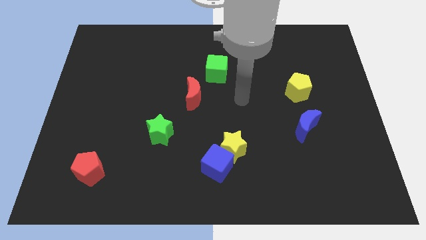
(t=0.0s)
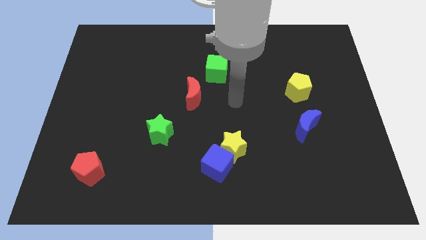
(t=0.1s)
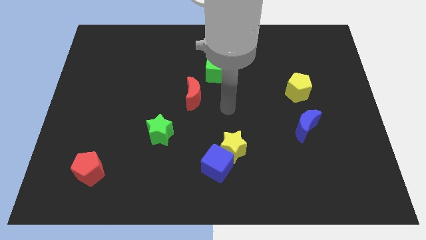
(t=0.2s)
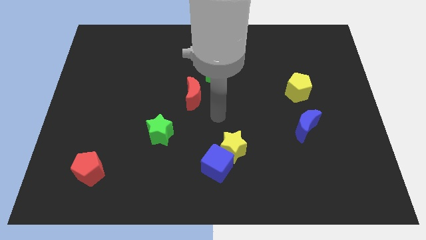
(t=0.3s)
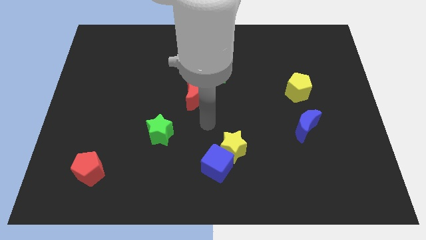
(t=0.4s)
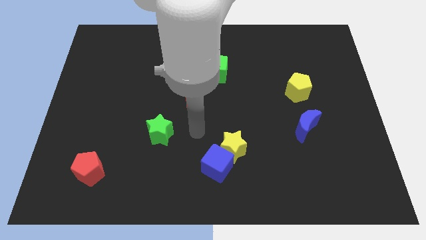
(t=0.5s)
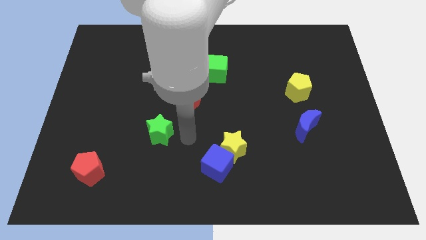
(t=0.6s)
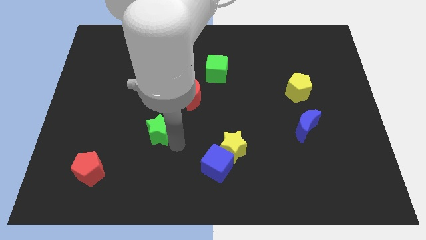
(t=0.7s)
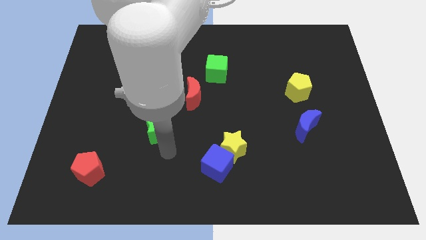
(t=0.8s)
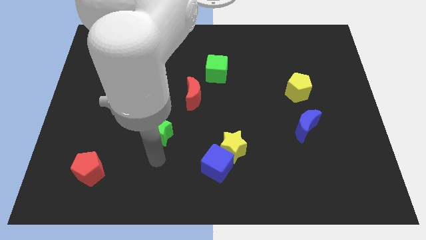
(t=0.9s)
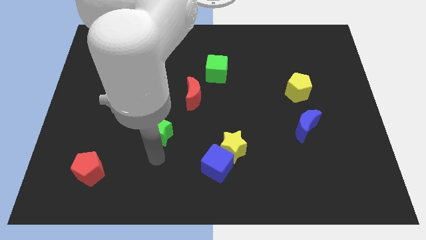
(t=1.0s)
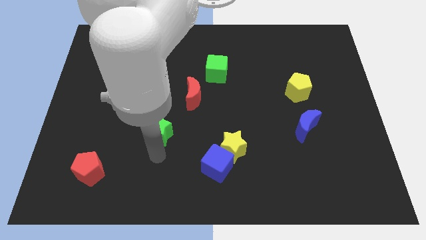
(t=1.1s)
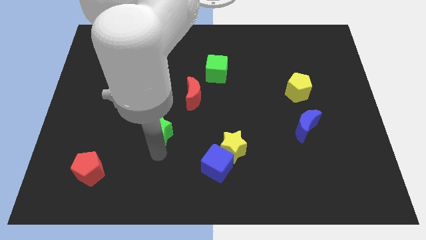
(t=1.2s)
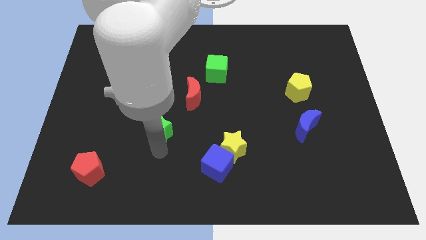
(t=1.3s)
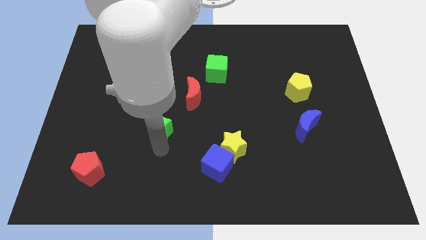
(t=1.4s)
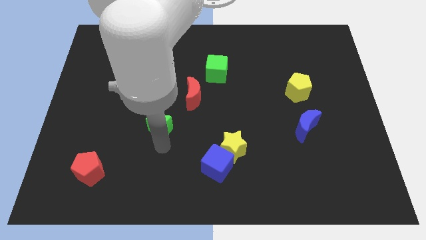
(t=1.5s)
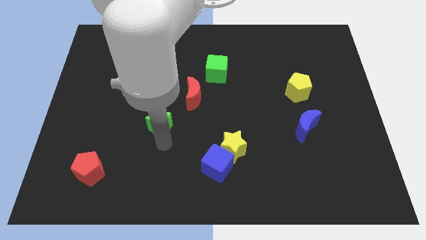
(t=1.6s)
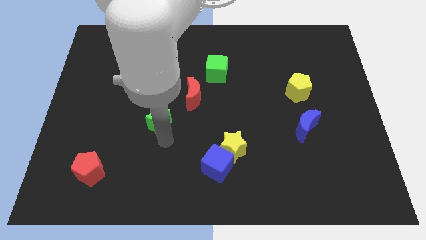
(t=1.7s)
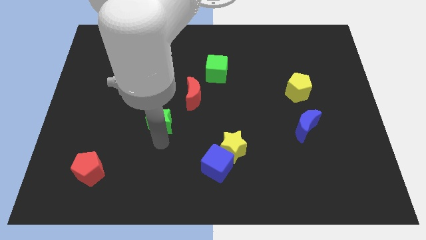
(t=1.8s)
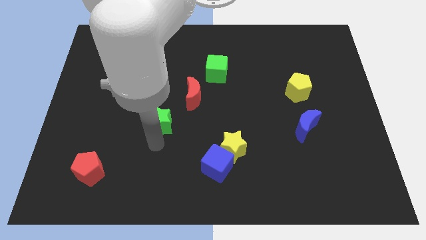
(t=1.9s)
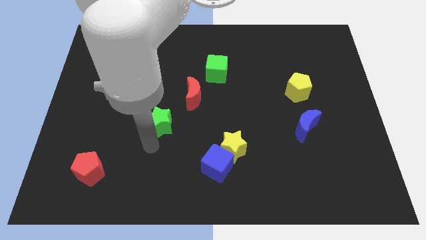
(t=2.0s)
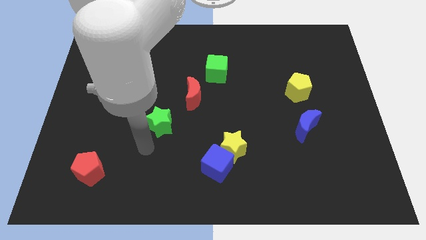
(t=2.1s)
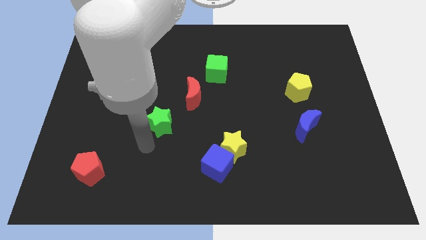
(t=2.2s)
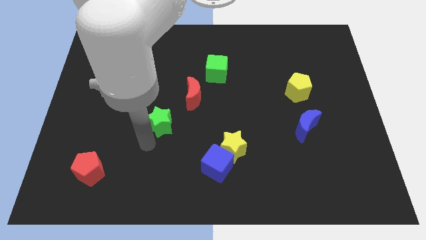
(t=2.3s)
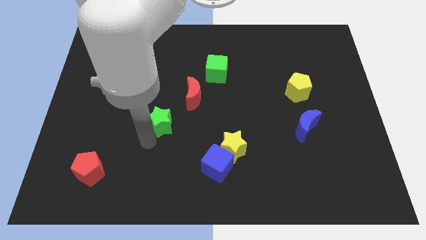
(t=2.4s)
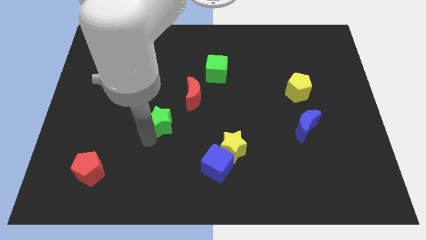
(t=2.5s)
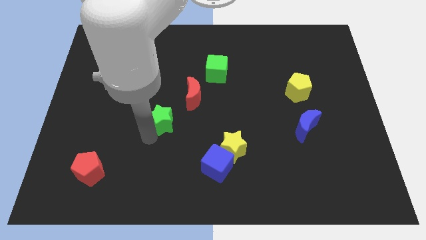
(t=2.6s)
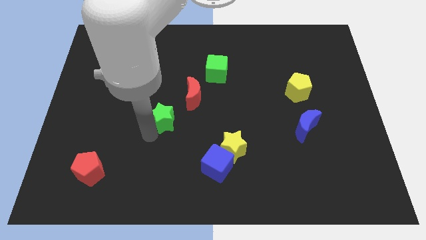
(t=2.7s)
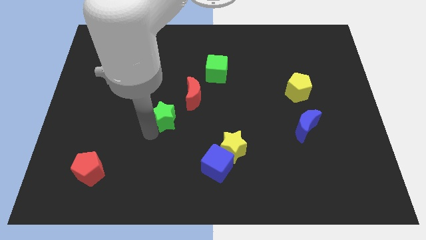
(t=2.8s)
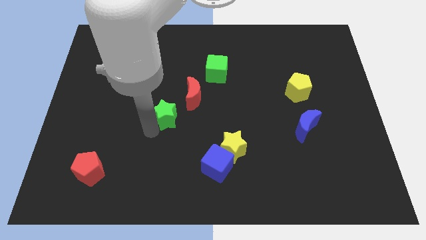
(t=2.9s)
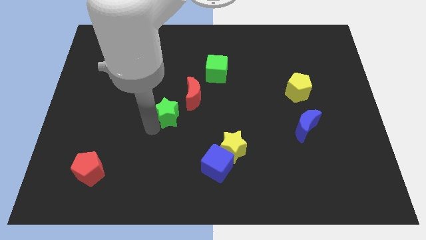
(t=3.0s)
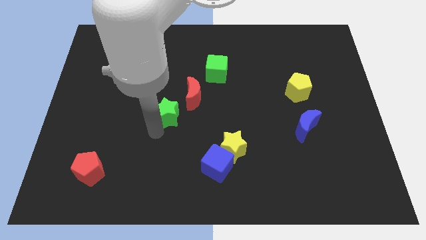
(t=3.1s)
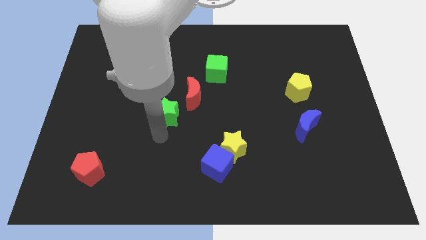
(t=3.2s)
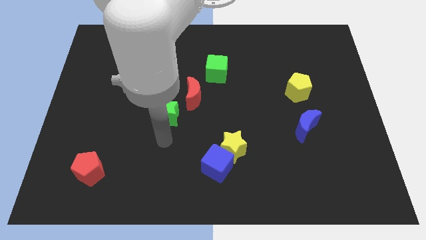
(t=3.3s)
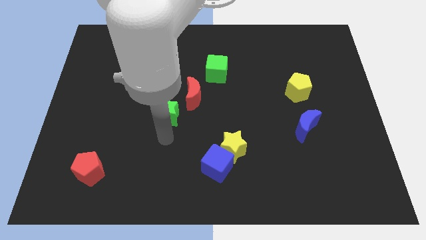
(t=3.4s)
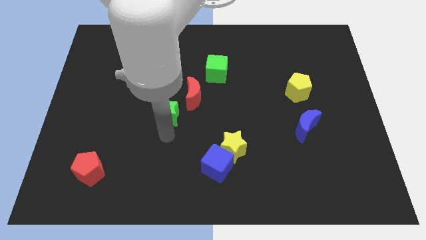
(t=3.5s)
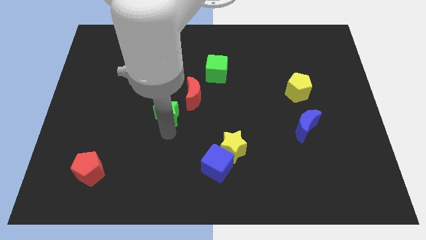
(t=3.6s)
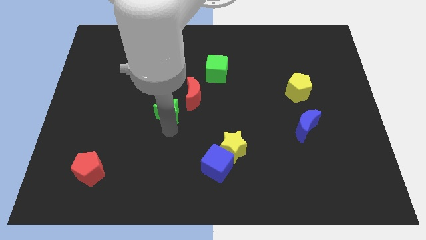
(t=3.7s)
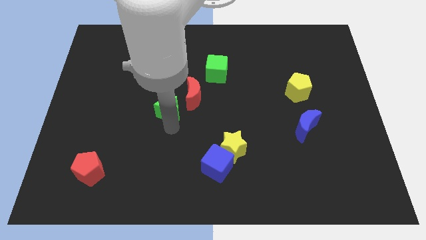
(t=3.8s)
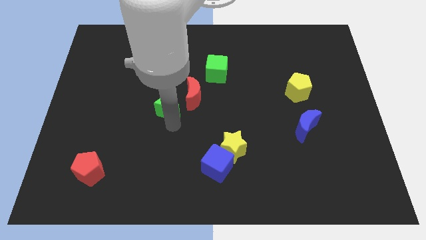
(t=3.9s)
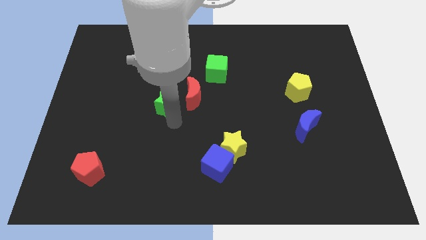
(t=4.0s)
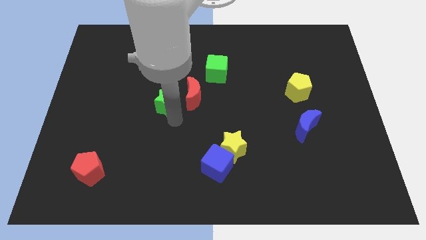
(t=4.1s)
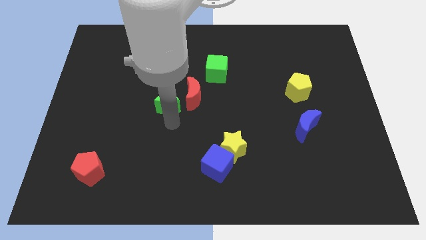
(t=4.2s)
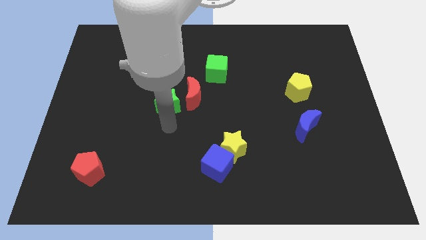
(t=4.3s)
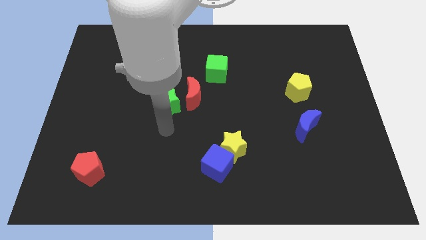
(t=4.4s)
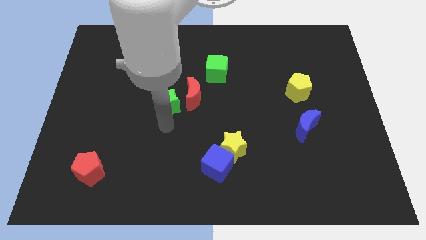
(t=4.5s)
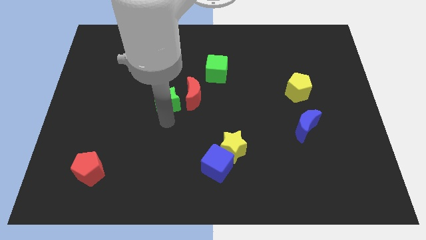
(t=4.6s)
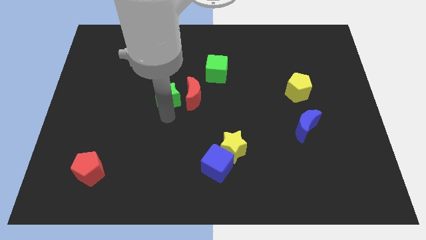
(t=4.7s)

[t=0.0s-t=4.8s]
push the green star to the top left side of the red moon

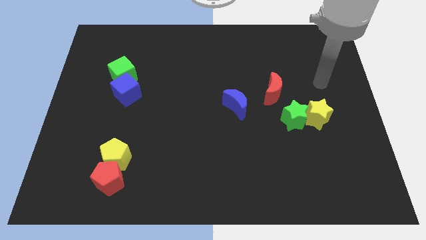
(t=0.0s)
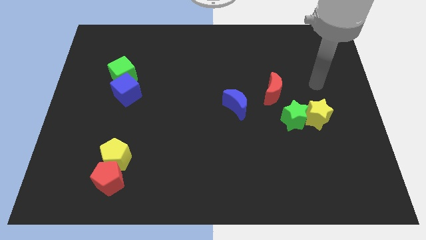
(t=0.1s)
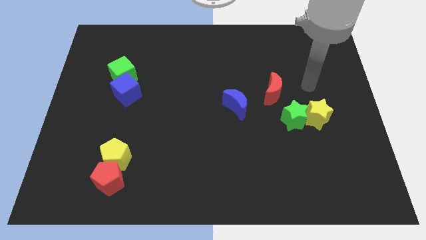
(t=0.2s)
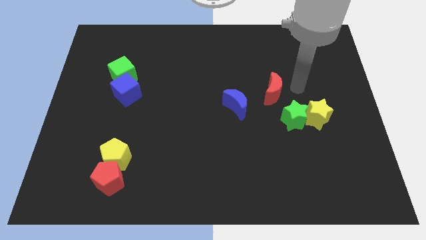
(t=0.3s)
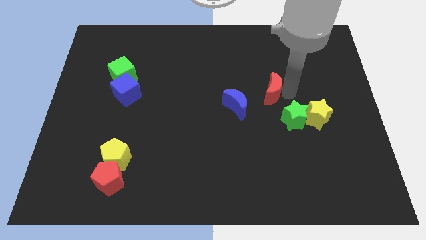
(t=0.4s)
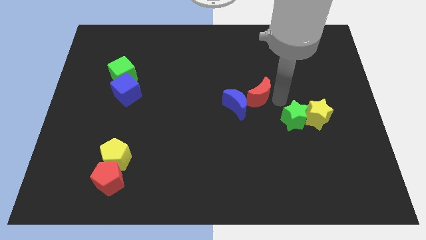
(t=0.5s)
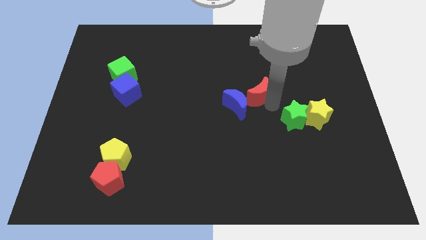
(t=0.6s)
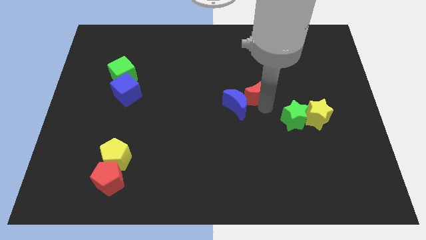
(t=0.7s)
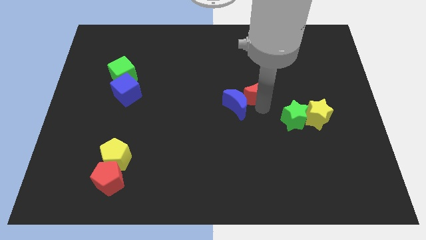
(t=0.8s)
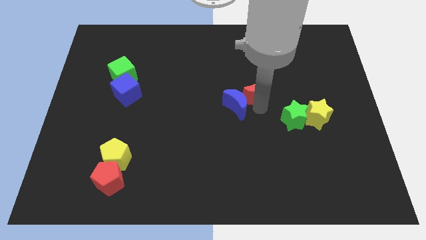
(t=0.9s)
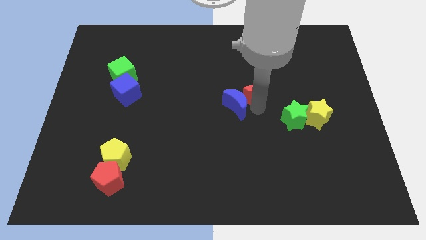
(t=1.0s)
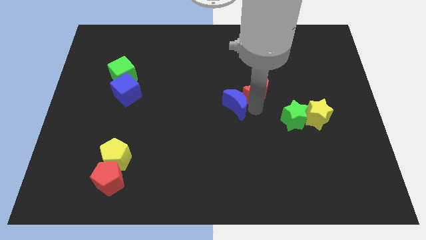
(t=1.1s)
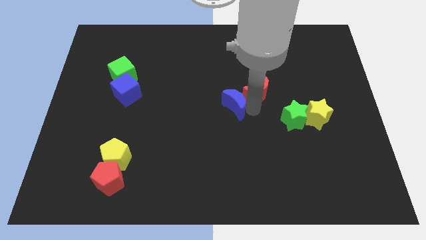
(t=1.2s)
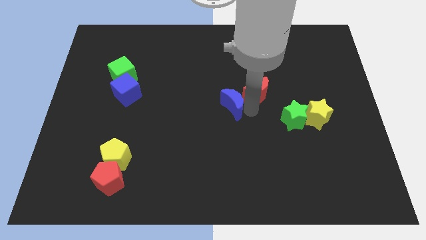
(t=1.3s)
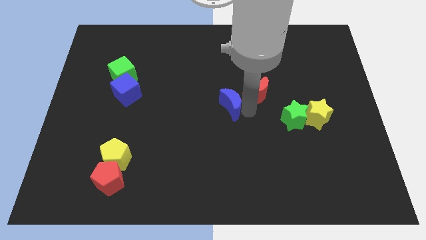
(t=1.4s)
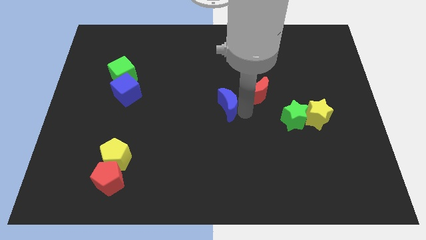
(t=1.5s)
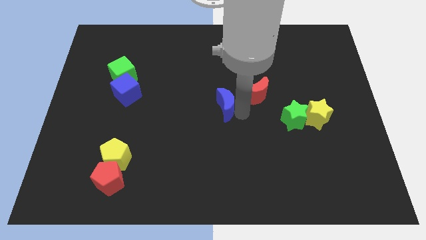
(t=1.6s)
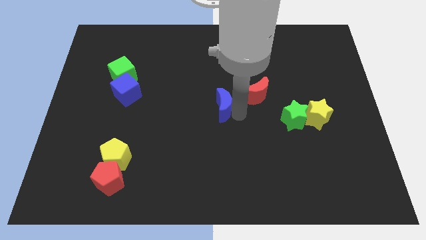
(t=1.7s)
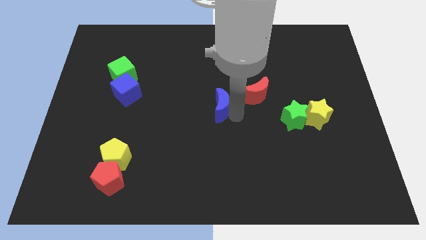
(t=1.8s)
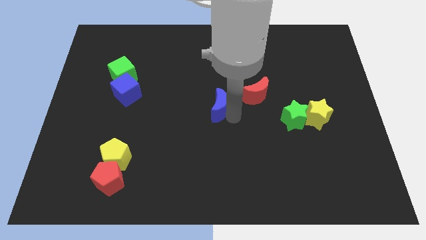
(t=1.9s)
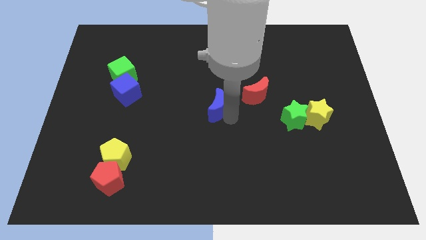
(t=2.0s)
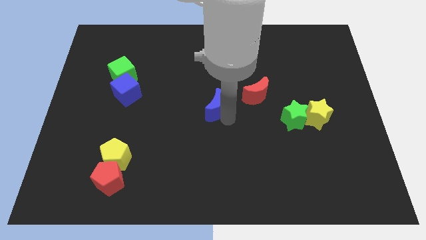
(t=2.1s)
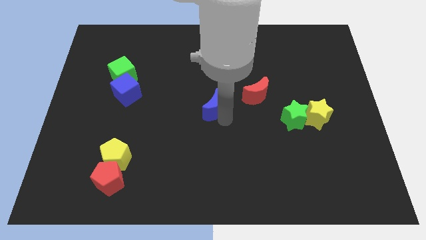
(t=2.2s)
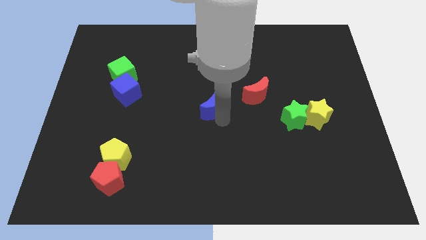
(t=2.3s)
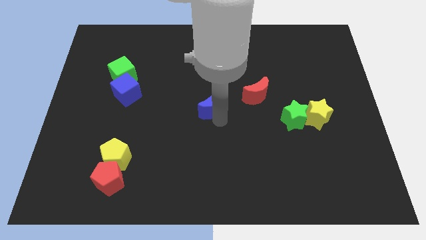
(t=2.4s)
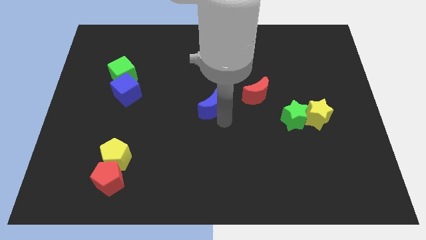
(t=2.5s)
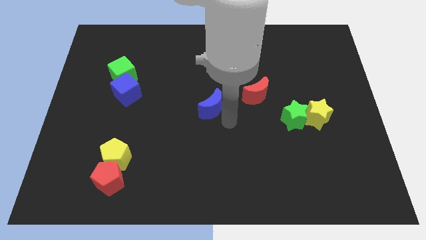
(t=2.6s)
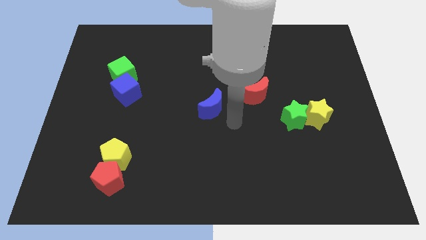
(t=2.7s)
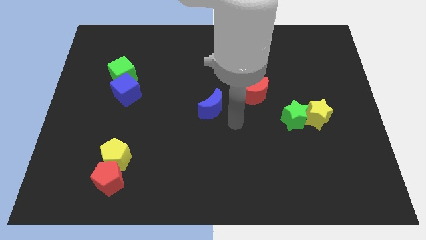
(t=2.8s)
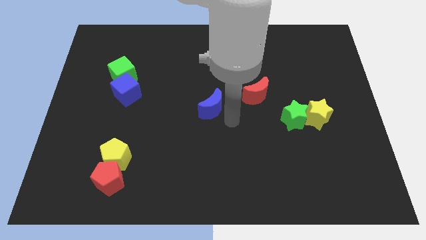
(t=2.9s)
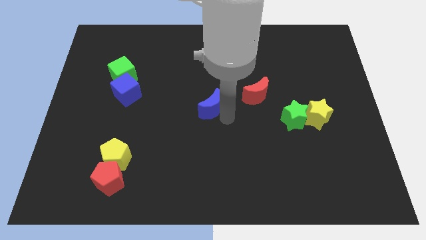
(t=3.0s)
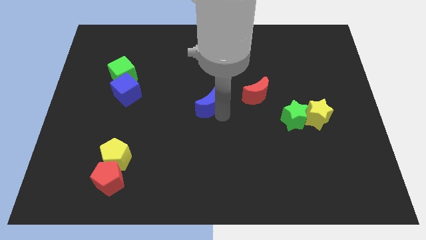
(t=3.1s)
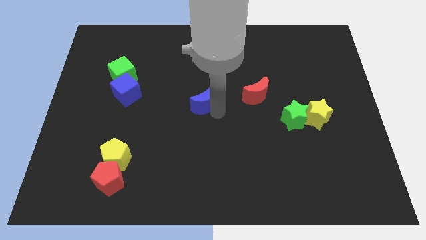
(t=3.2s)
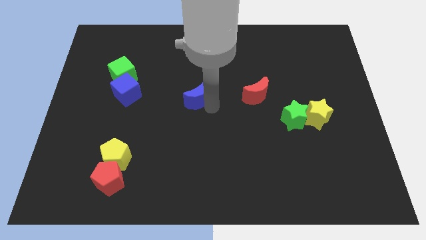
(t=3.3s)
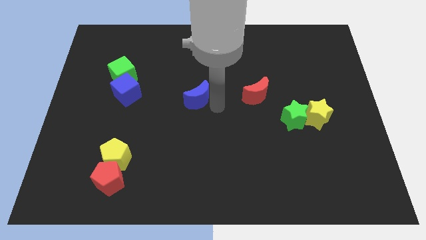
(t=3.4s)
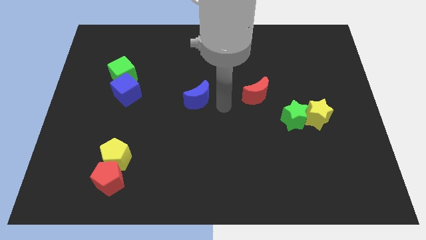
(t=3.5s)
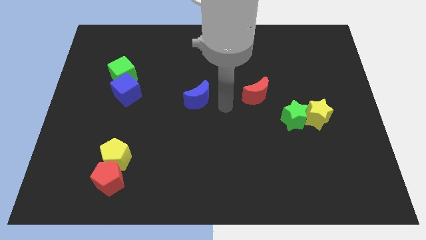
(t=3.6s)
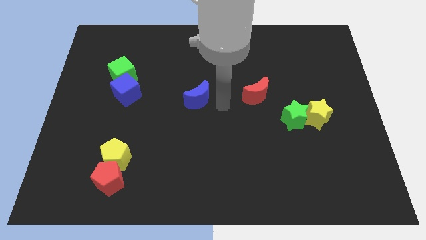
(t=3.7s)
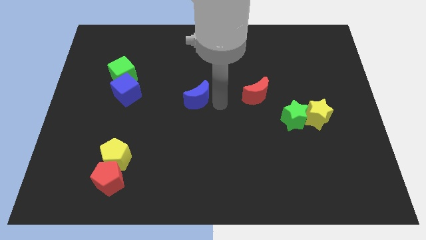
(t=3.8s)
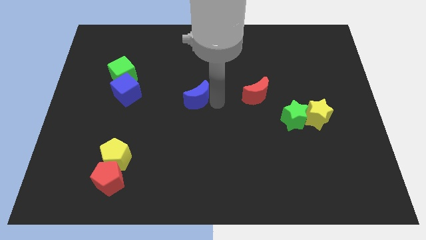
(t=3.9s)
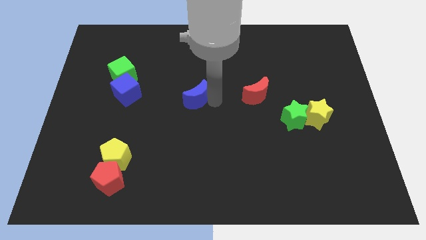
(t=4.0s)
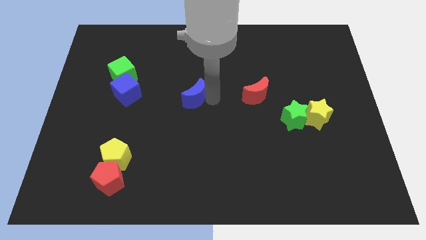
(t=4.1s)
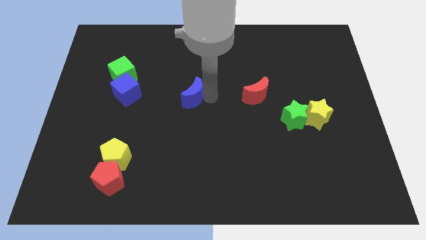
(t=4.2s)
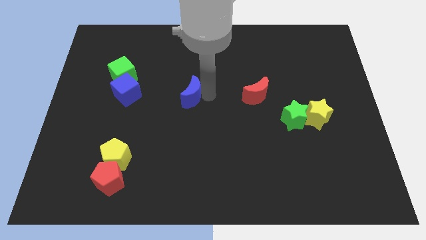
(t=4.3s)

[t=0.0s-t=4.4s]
slide the blue moon right of the blue cube
